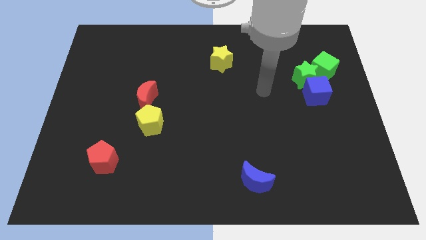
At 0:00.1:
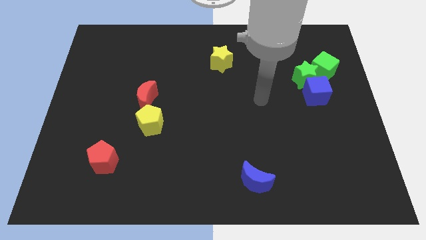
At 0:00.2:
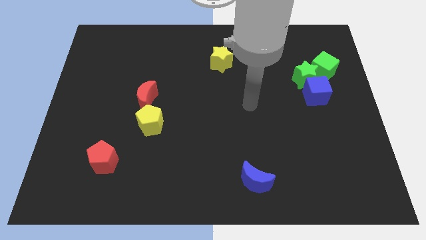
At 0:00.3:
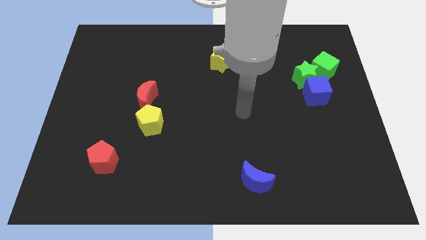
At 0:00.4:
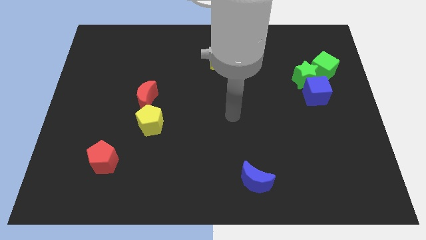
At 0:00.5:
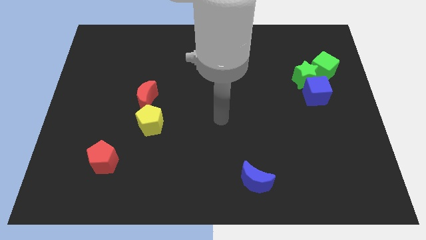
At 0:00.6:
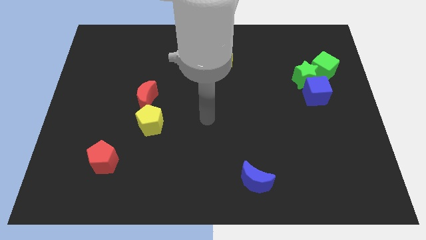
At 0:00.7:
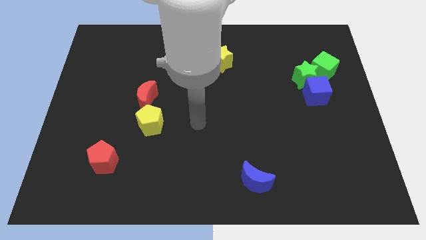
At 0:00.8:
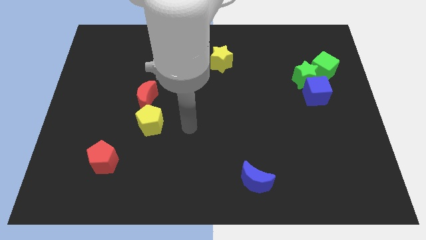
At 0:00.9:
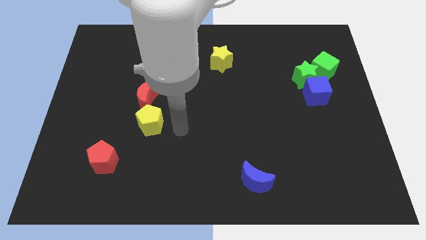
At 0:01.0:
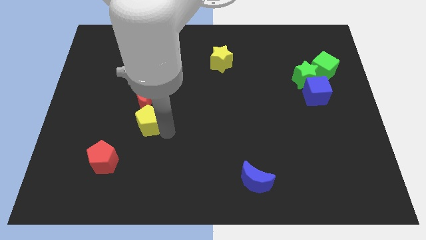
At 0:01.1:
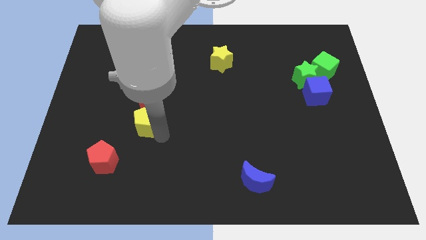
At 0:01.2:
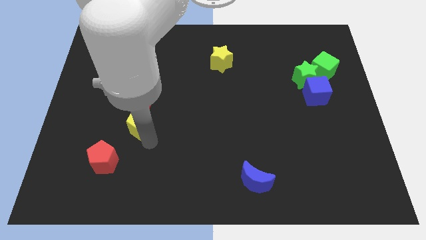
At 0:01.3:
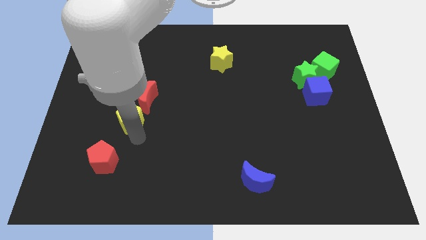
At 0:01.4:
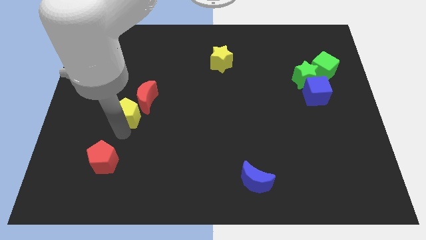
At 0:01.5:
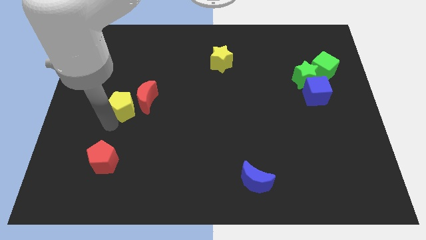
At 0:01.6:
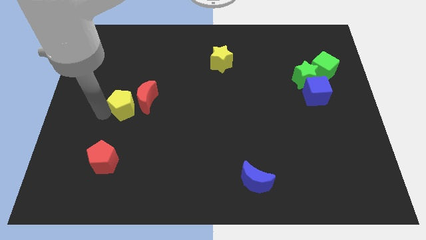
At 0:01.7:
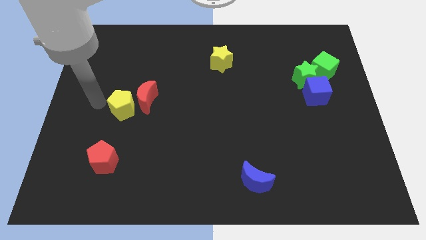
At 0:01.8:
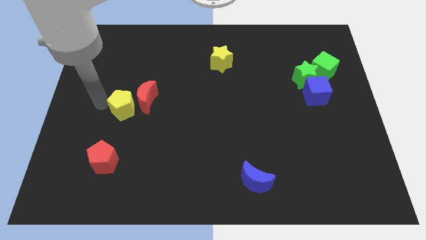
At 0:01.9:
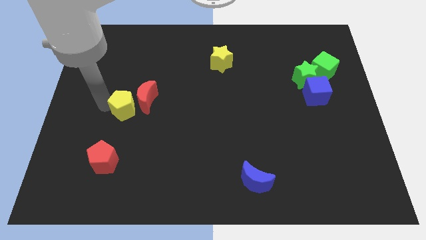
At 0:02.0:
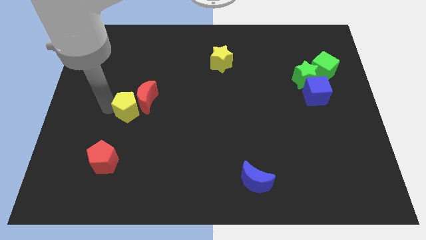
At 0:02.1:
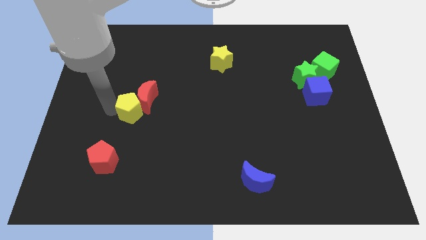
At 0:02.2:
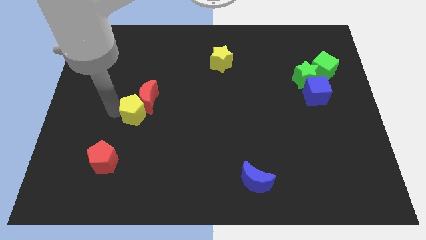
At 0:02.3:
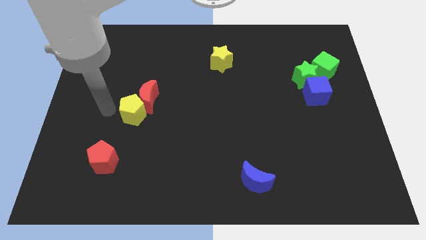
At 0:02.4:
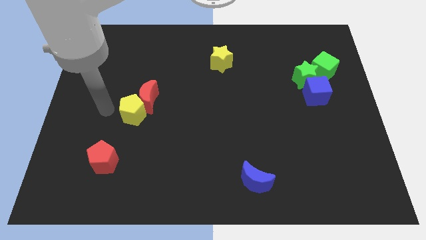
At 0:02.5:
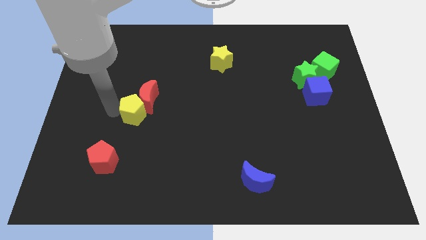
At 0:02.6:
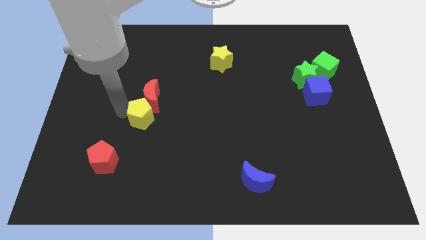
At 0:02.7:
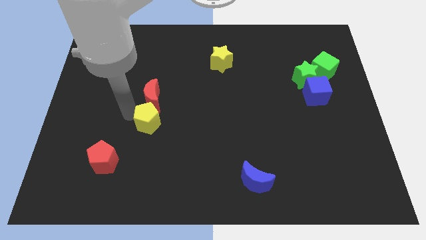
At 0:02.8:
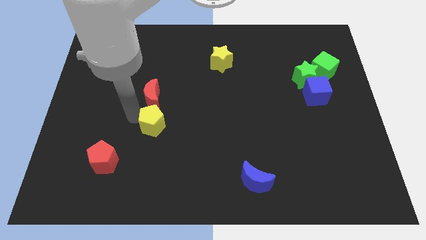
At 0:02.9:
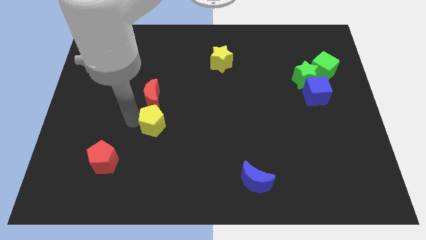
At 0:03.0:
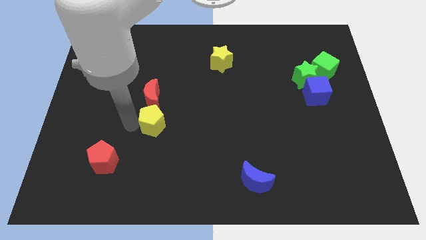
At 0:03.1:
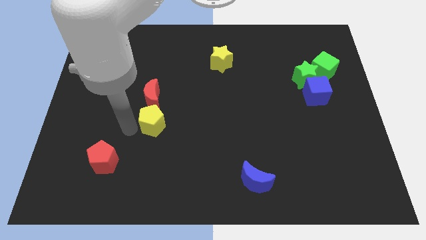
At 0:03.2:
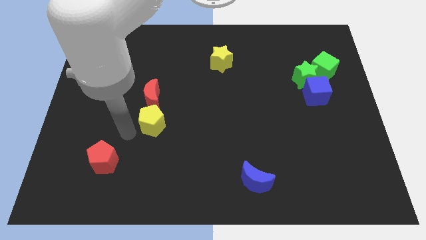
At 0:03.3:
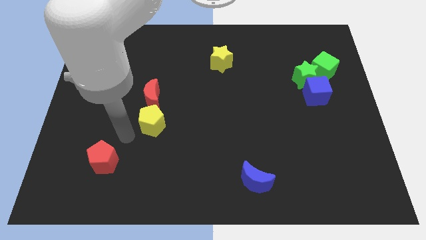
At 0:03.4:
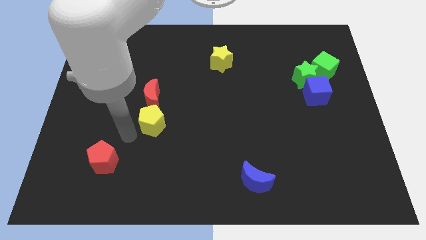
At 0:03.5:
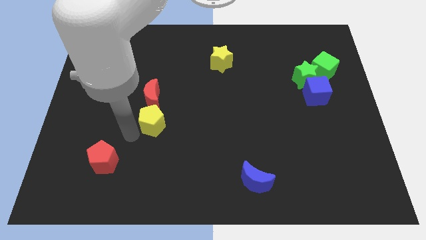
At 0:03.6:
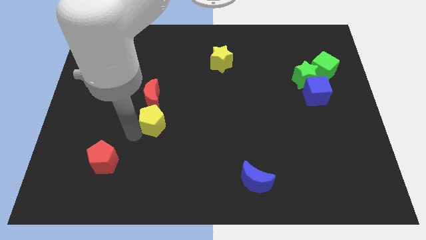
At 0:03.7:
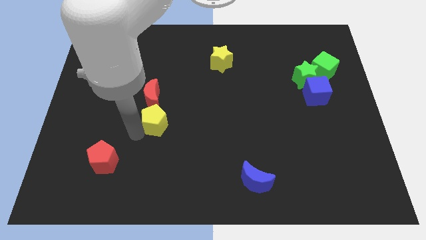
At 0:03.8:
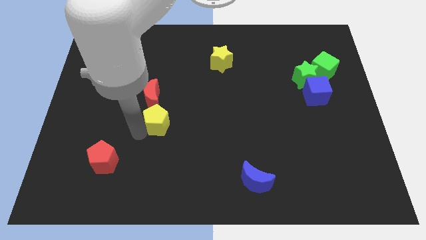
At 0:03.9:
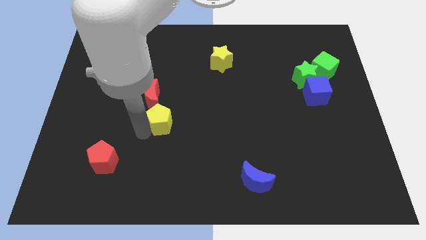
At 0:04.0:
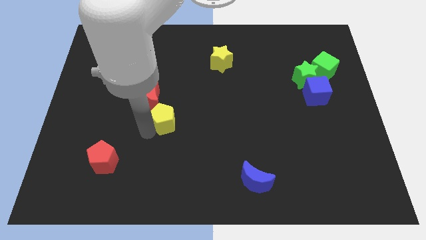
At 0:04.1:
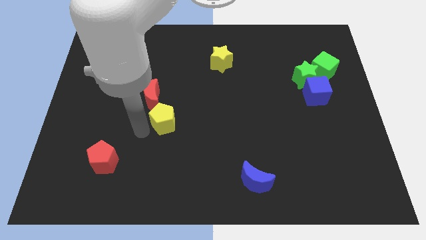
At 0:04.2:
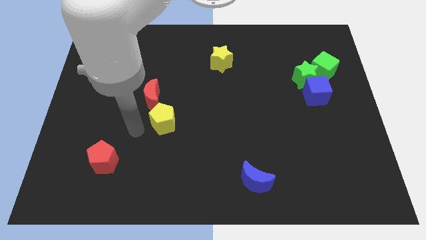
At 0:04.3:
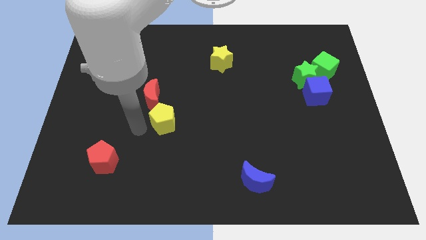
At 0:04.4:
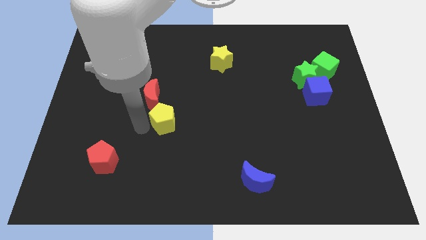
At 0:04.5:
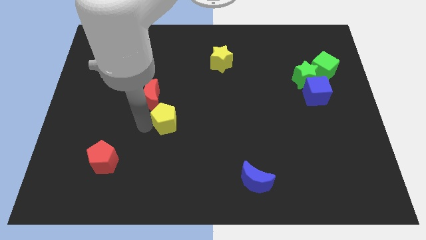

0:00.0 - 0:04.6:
put the yellow pentagon to the center of the board

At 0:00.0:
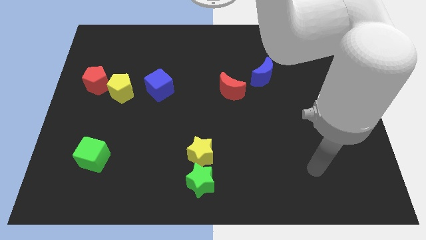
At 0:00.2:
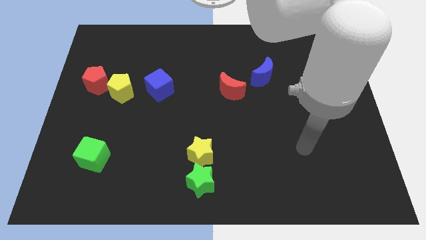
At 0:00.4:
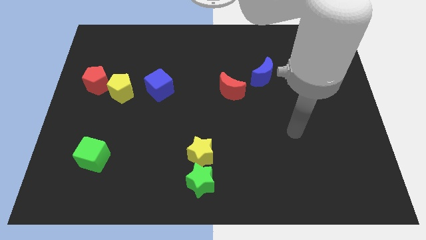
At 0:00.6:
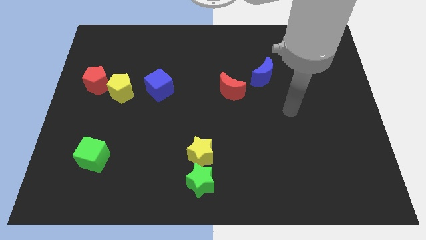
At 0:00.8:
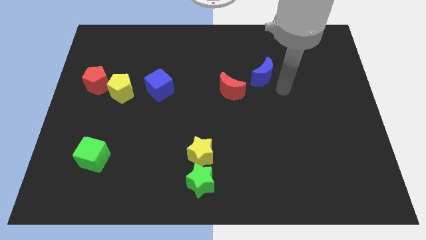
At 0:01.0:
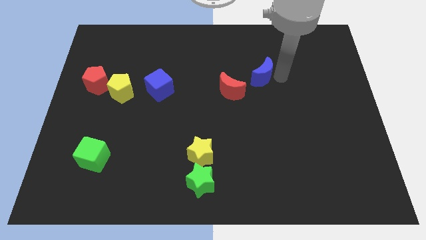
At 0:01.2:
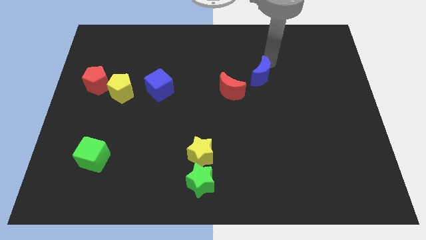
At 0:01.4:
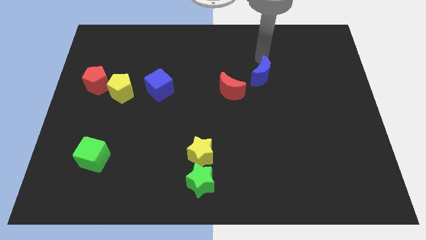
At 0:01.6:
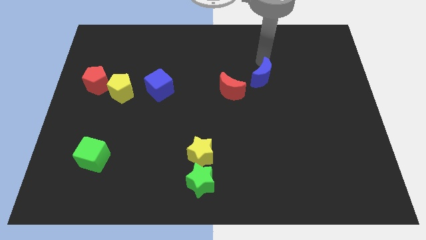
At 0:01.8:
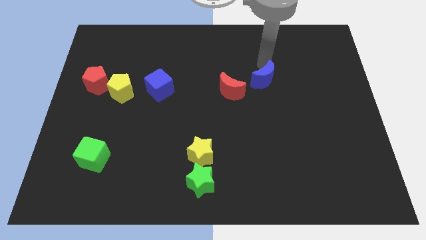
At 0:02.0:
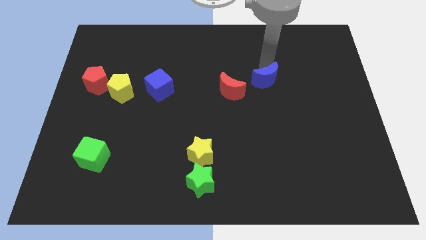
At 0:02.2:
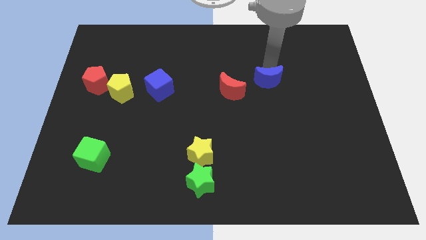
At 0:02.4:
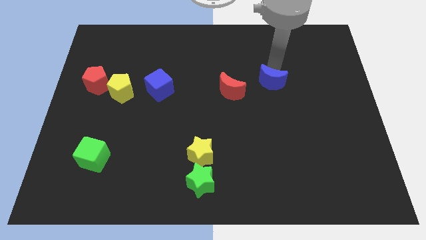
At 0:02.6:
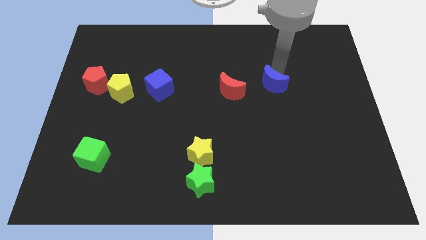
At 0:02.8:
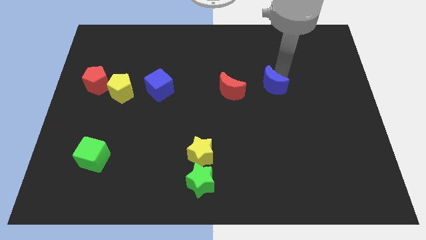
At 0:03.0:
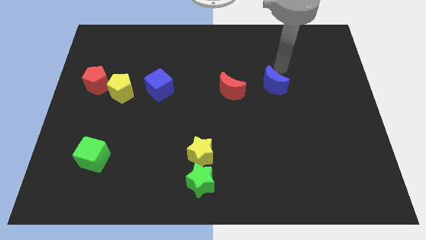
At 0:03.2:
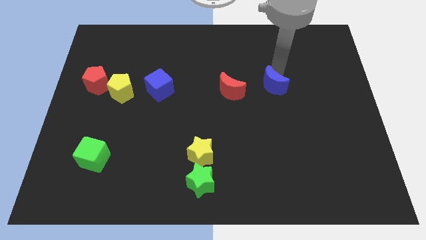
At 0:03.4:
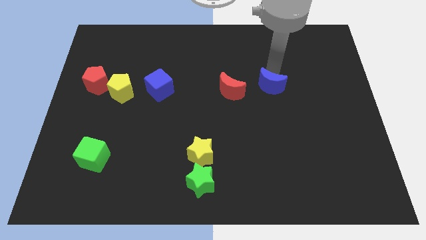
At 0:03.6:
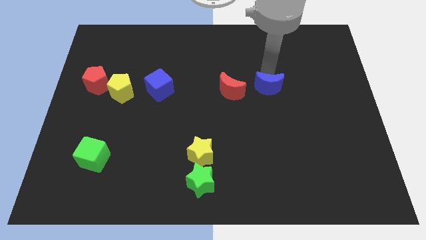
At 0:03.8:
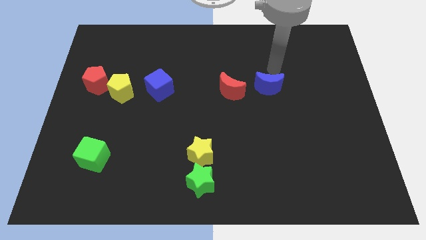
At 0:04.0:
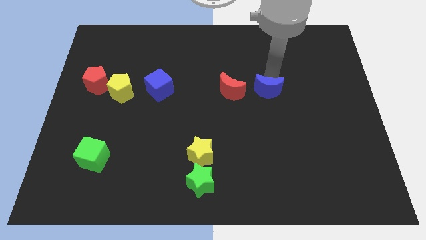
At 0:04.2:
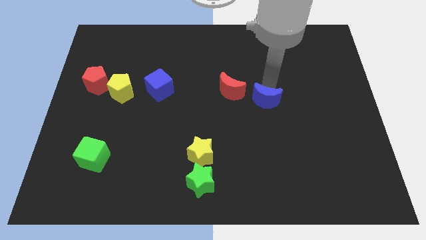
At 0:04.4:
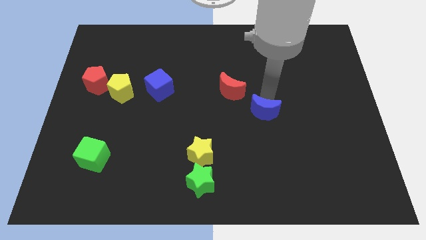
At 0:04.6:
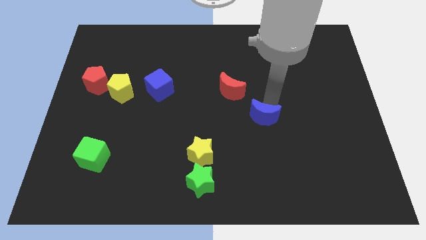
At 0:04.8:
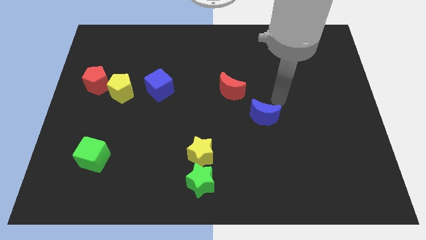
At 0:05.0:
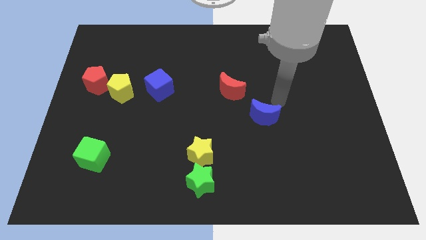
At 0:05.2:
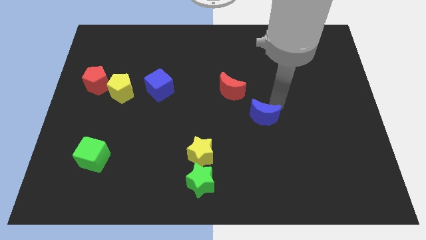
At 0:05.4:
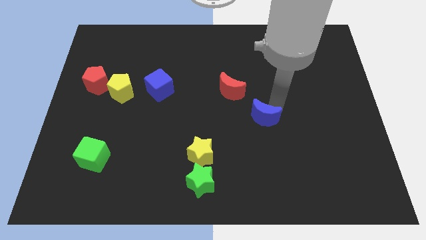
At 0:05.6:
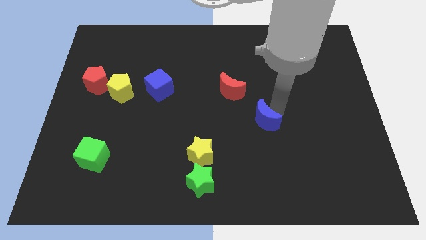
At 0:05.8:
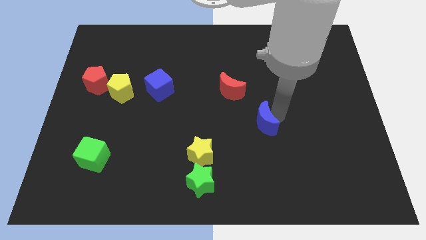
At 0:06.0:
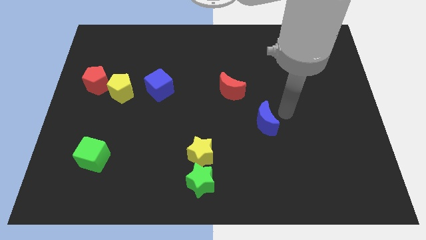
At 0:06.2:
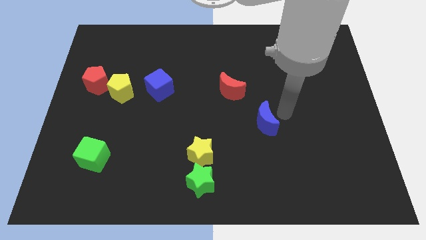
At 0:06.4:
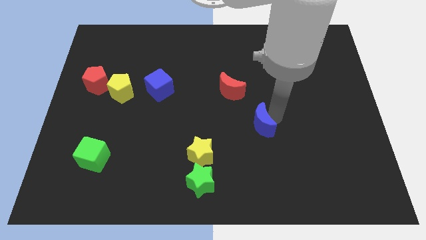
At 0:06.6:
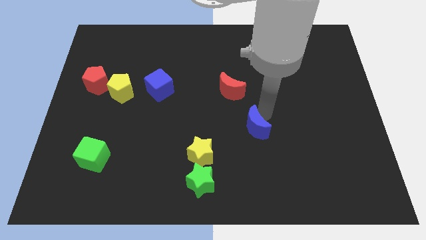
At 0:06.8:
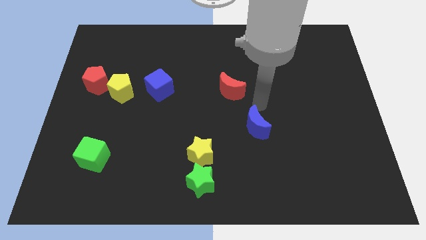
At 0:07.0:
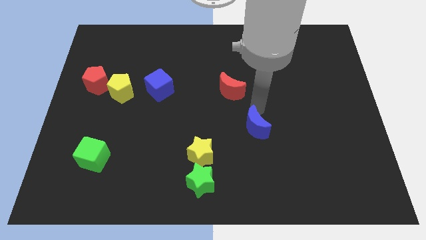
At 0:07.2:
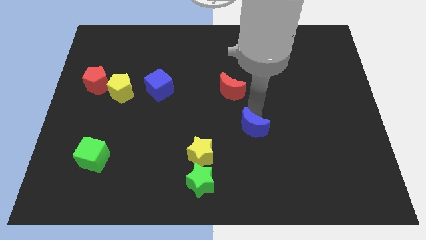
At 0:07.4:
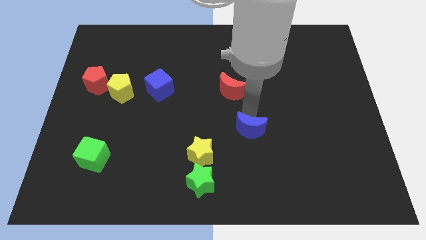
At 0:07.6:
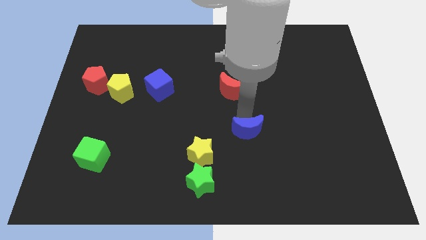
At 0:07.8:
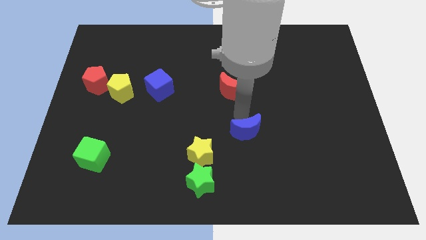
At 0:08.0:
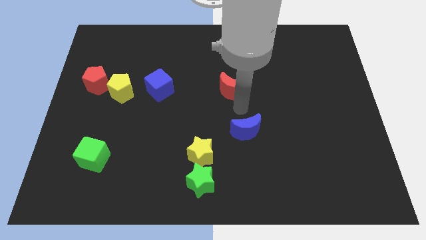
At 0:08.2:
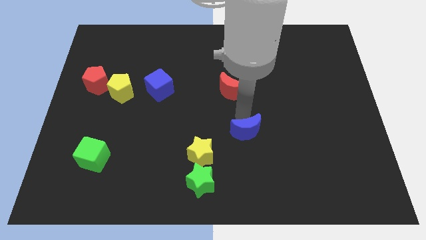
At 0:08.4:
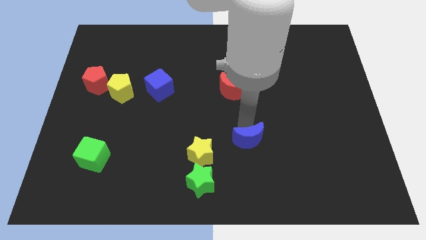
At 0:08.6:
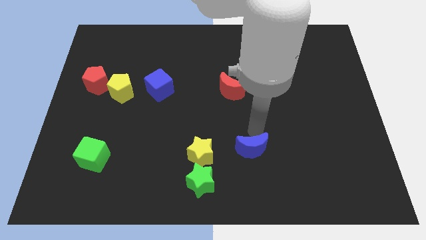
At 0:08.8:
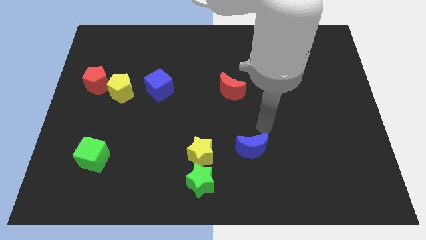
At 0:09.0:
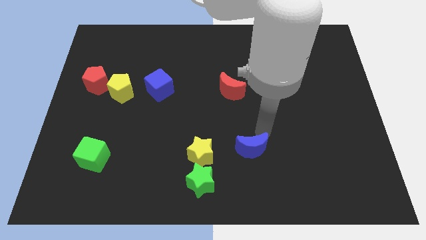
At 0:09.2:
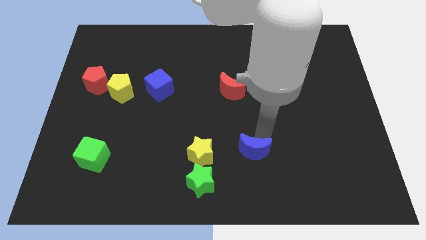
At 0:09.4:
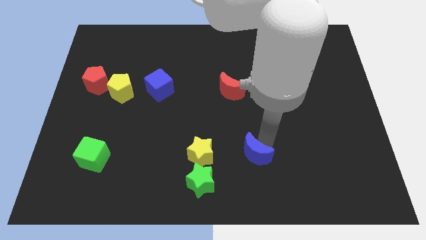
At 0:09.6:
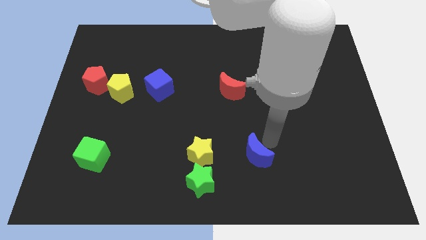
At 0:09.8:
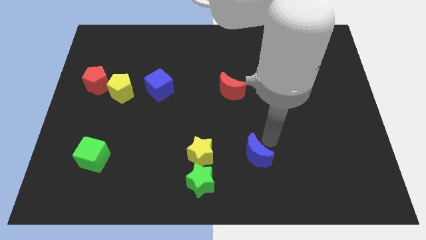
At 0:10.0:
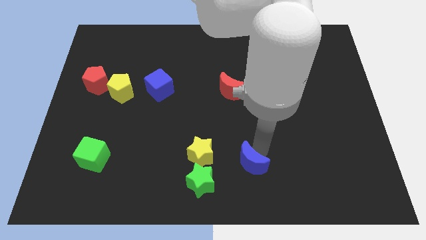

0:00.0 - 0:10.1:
put the blue moon to the bottom
